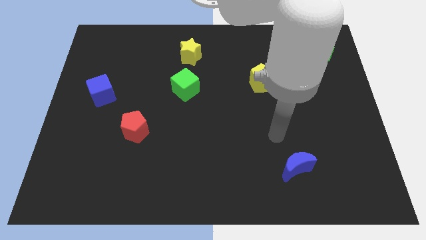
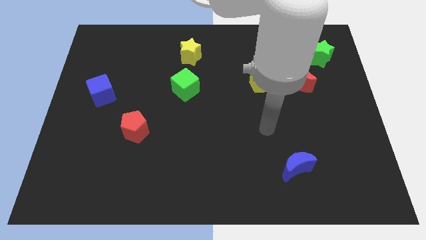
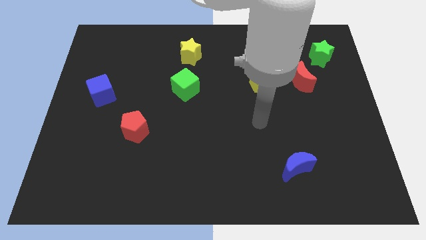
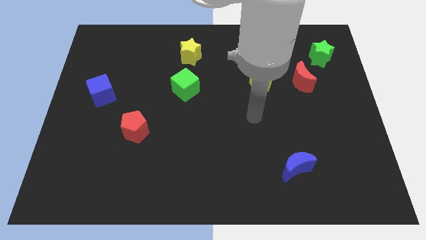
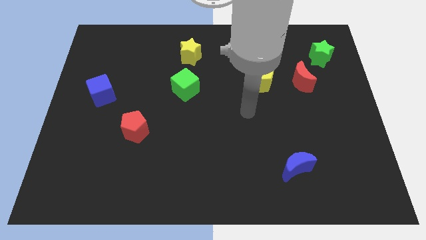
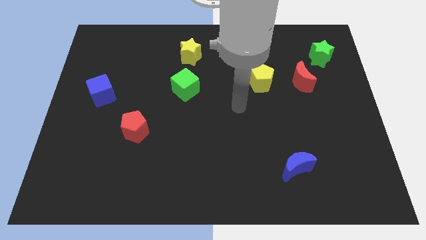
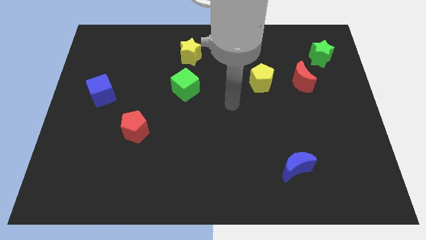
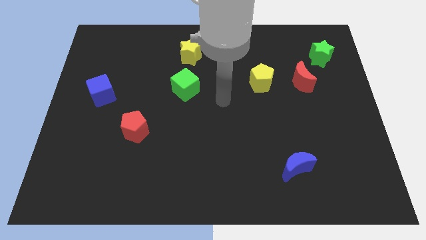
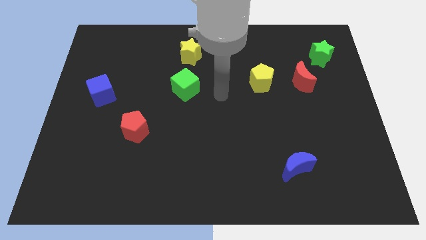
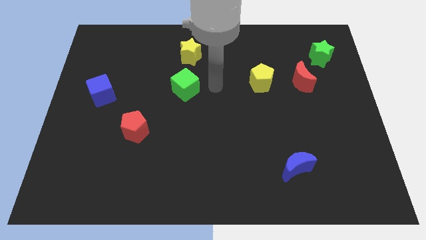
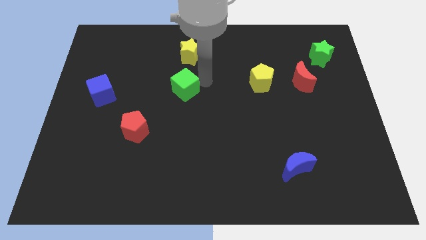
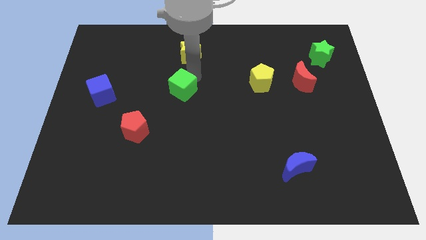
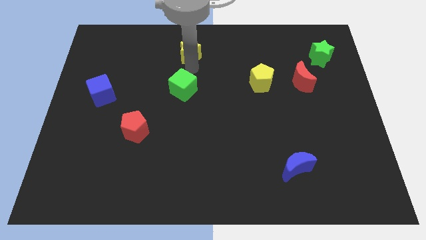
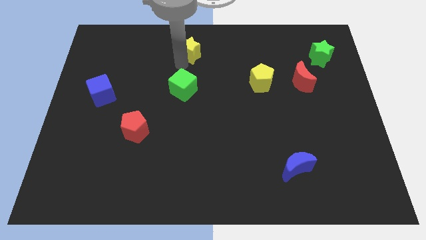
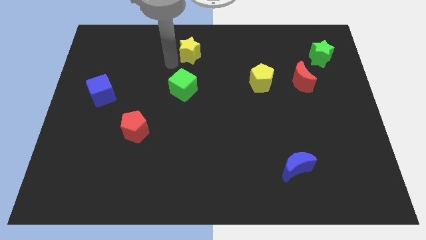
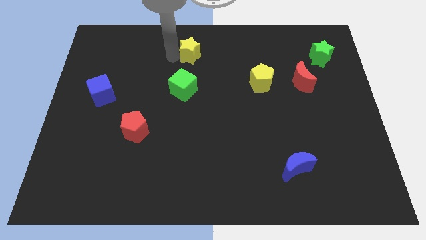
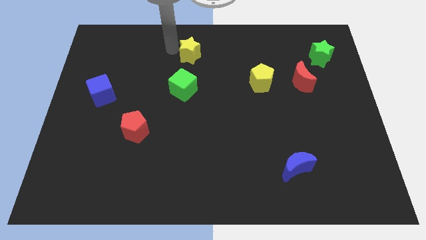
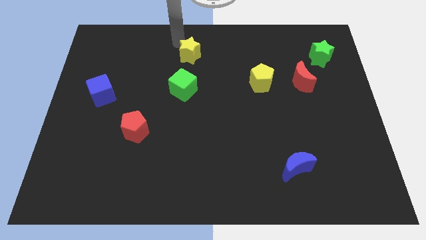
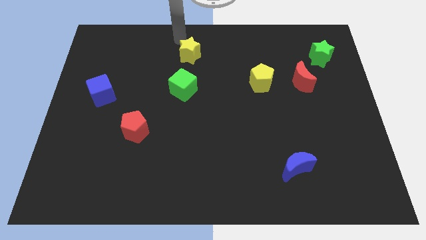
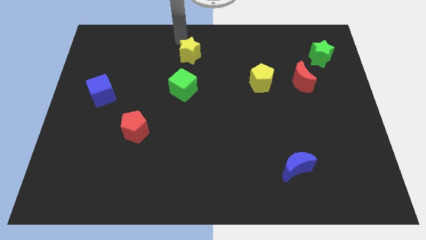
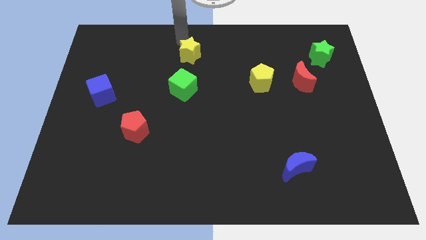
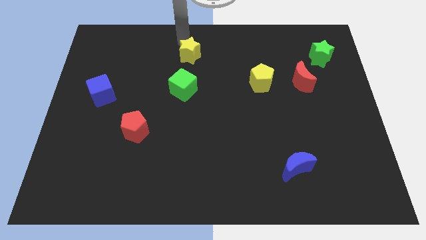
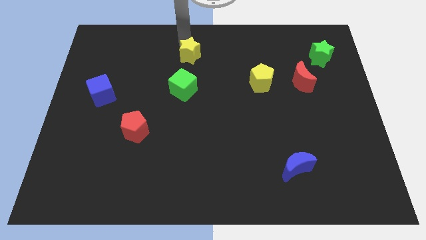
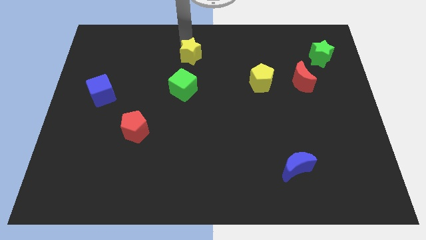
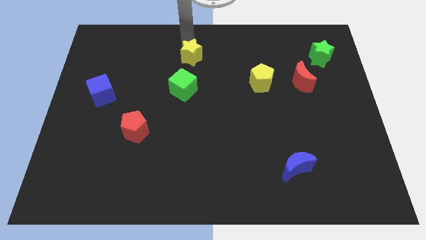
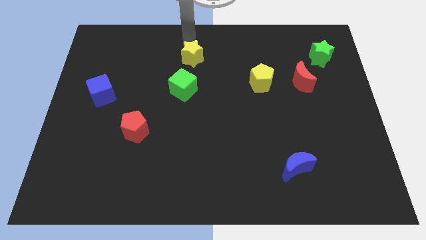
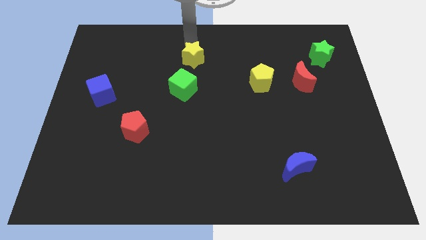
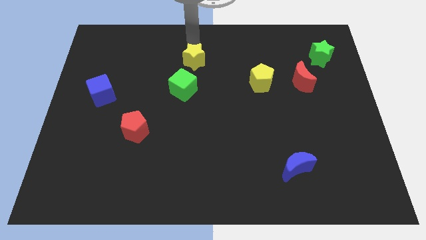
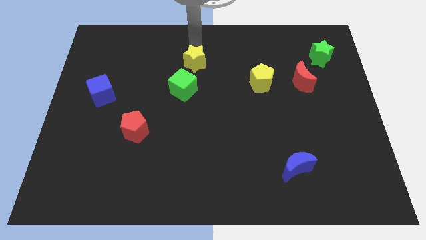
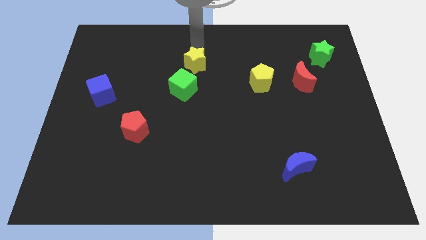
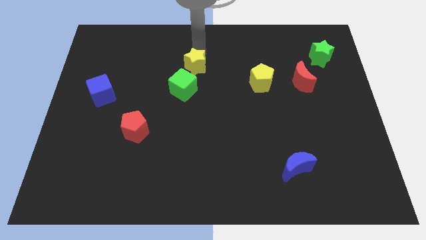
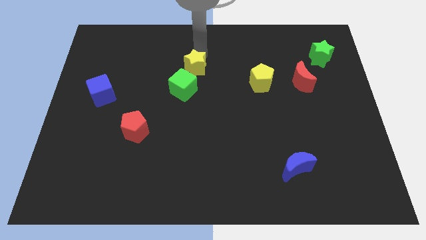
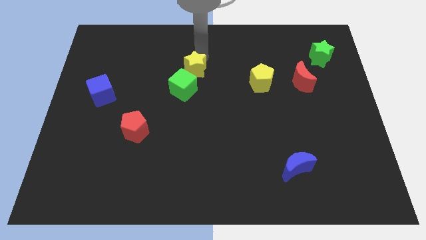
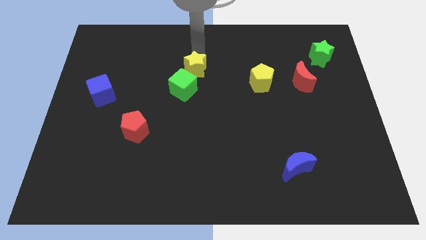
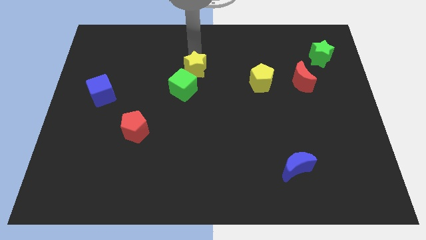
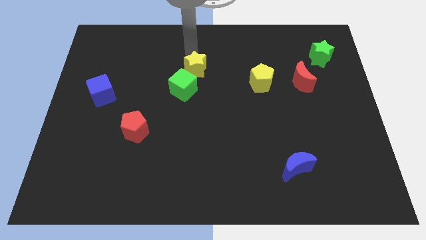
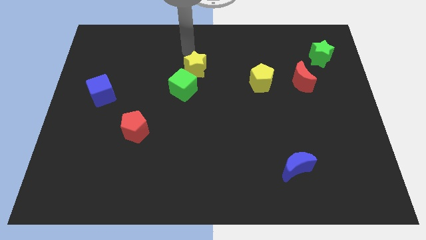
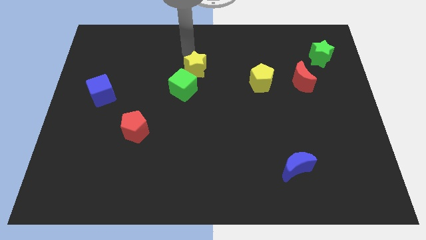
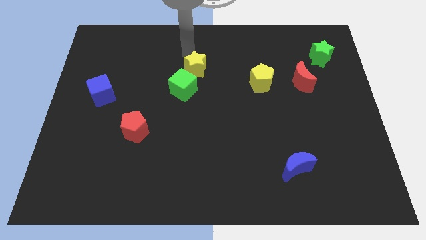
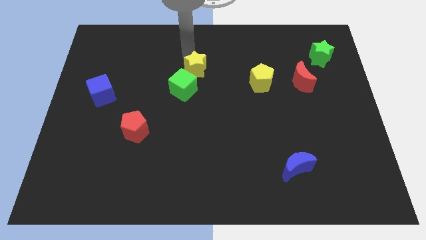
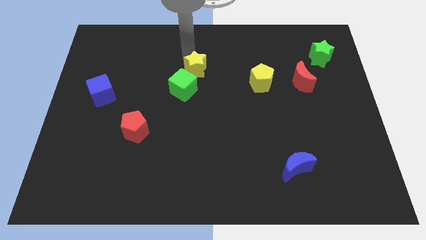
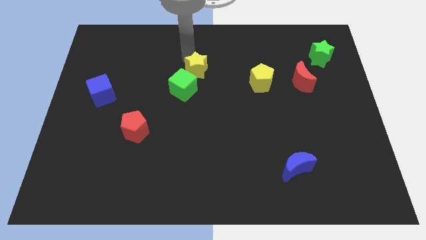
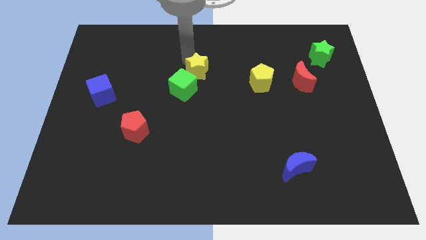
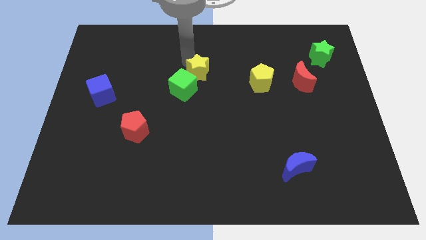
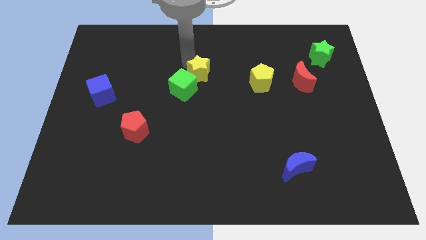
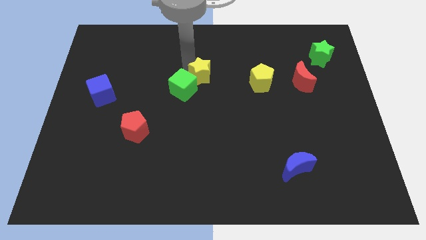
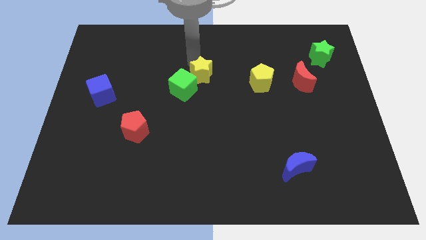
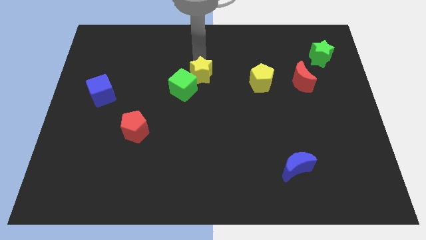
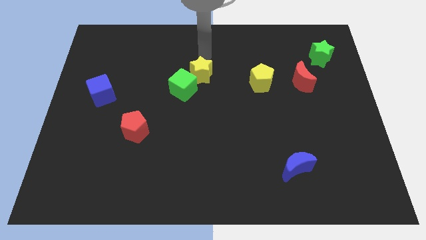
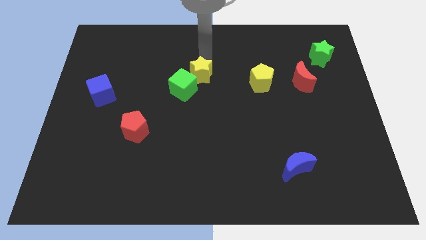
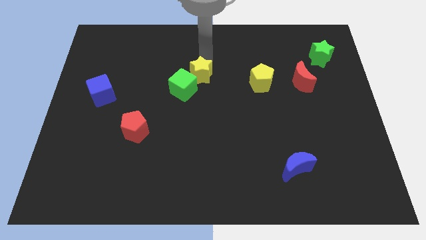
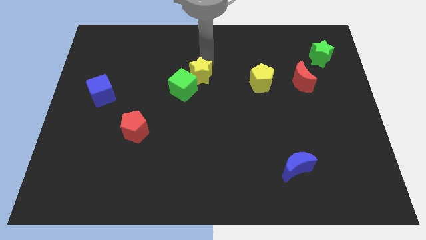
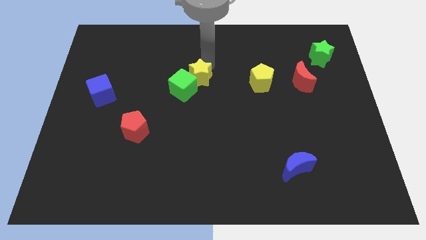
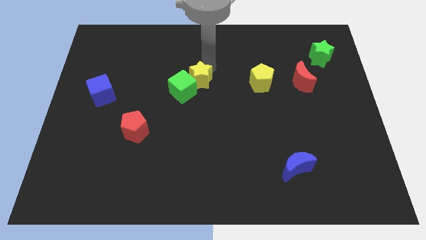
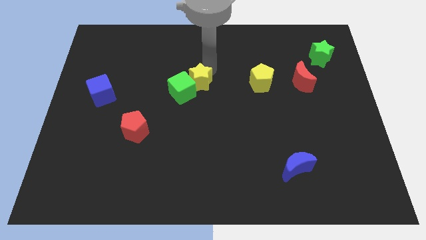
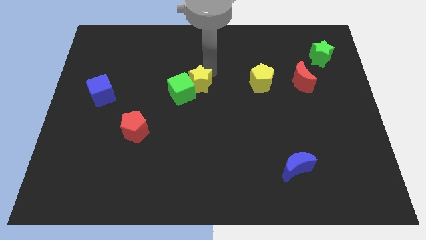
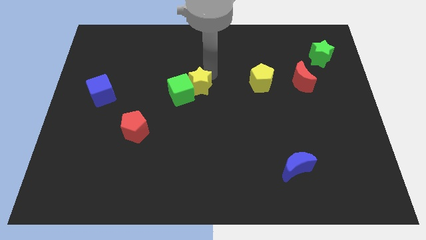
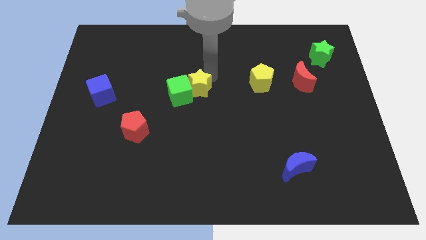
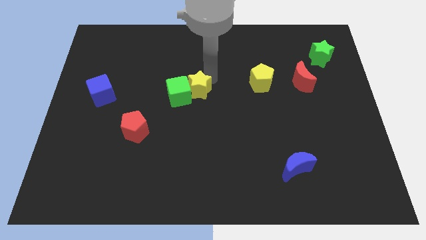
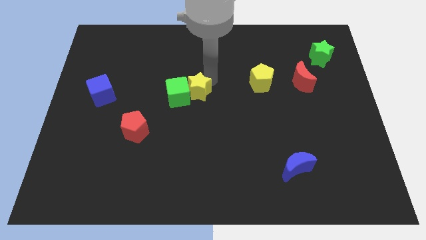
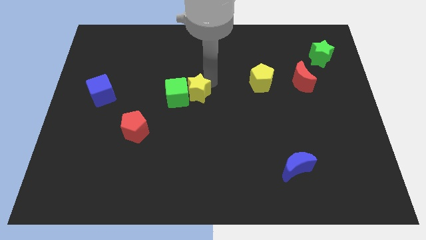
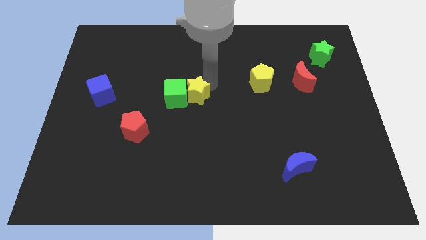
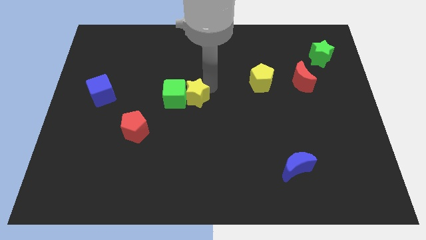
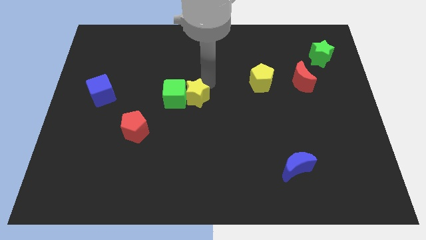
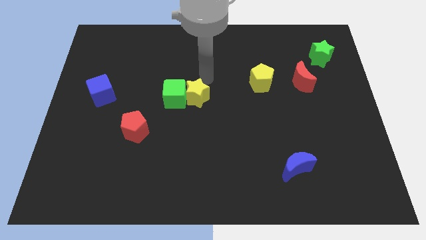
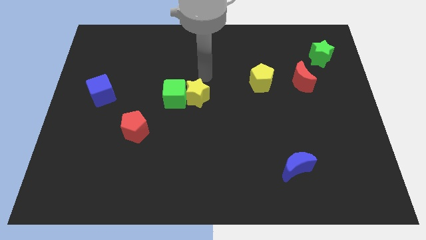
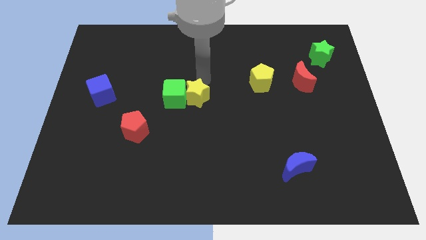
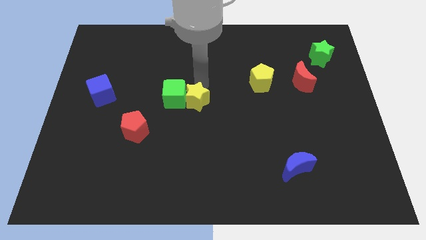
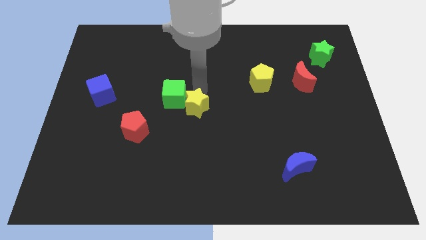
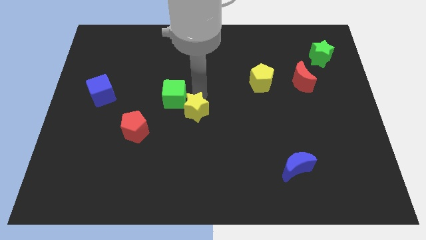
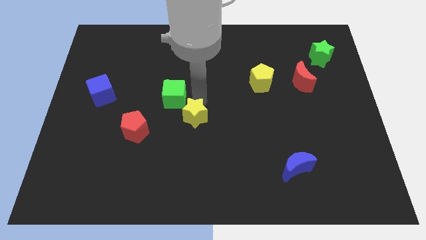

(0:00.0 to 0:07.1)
push the yellow star just right of the red pentagon

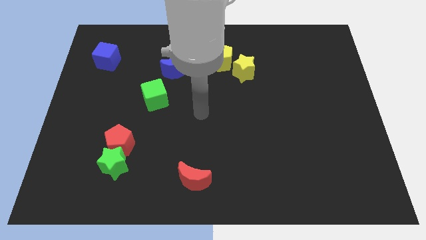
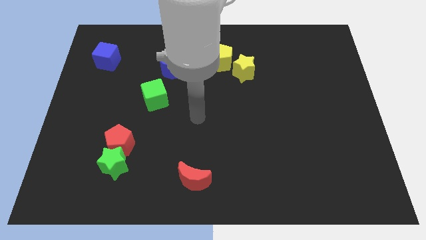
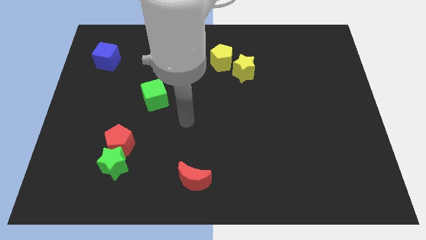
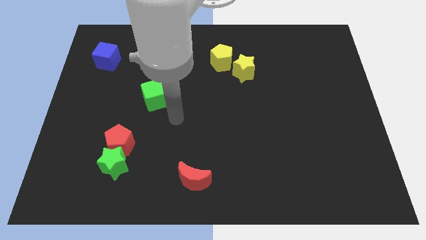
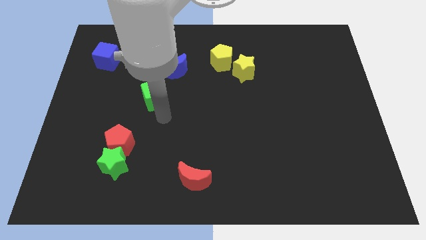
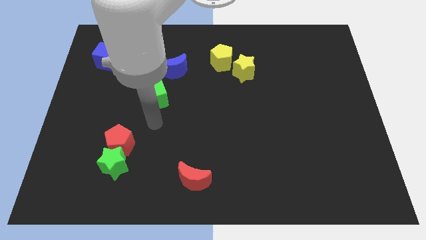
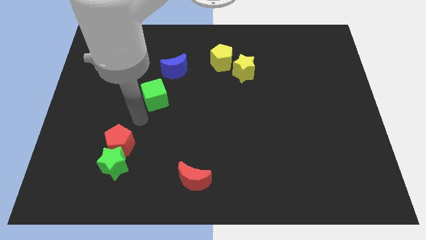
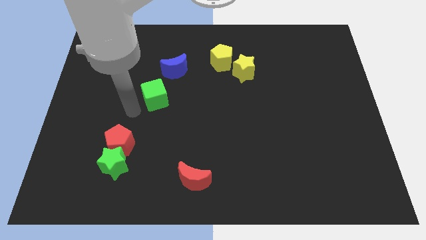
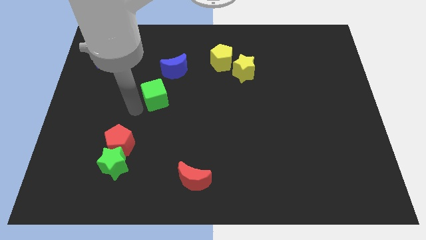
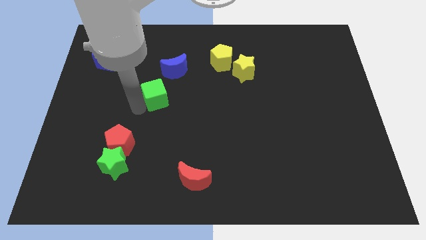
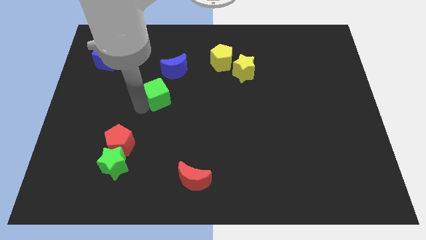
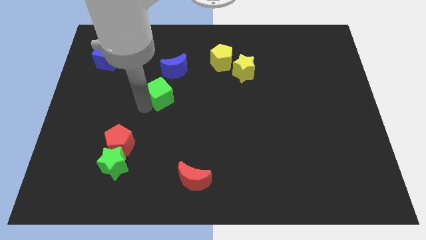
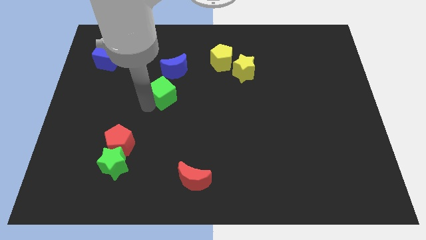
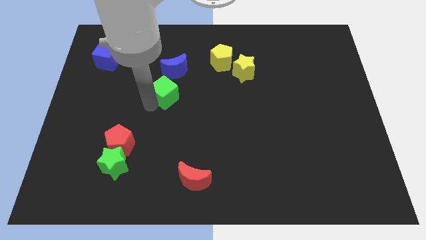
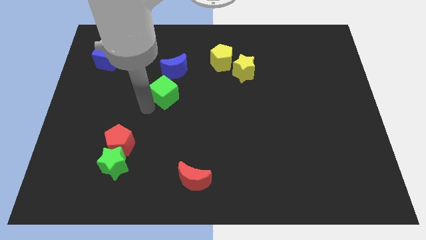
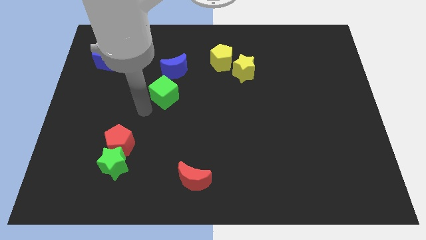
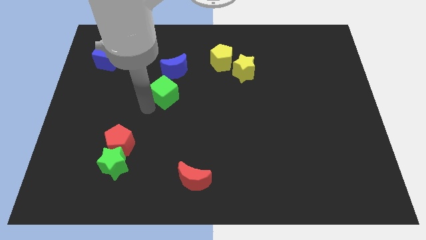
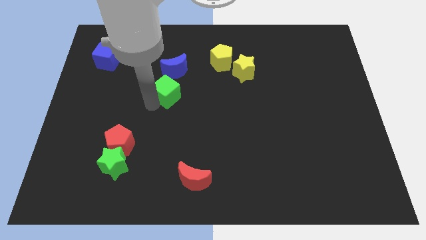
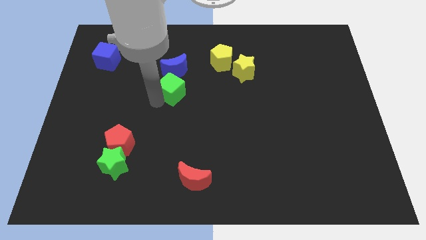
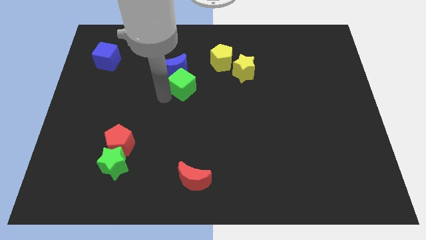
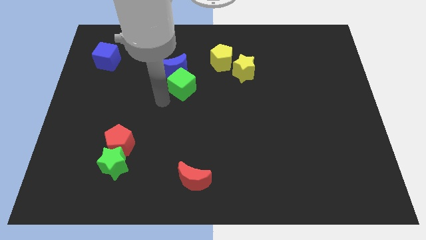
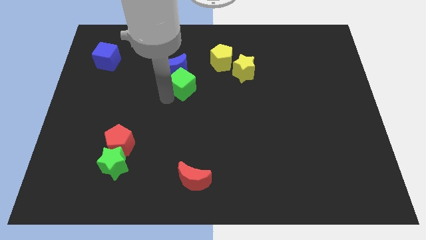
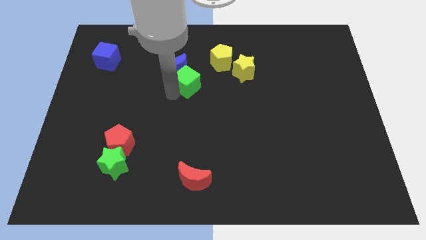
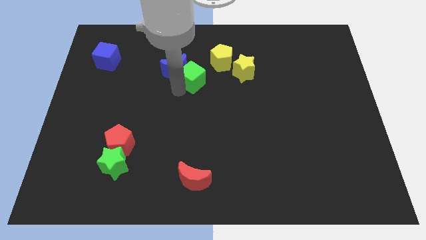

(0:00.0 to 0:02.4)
put the green cube just left of the yellow star
